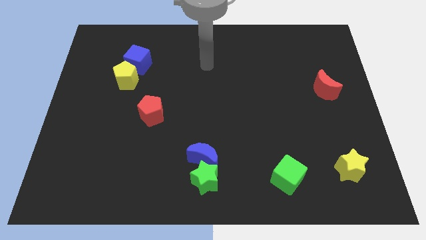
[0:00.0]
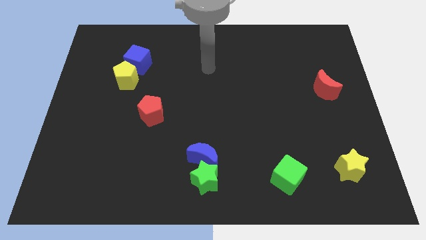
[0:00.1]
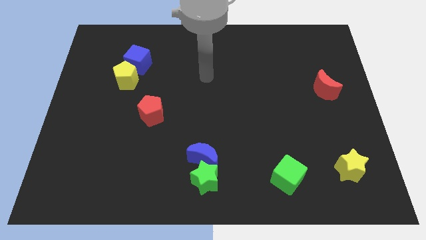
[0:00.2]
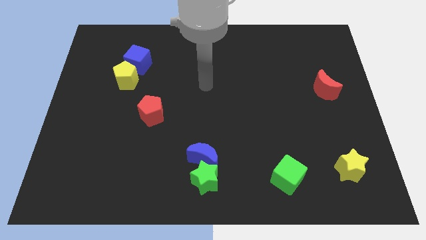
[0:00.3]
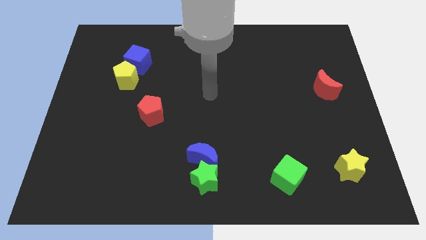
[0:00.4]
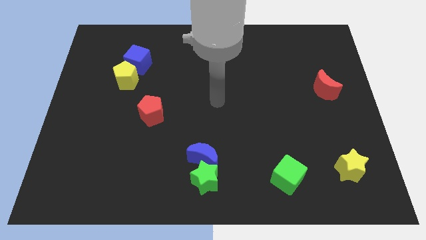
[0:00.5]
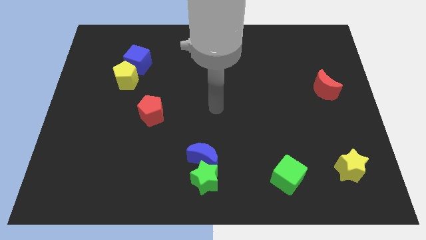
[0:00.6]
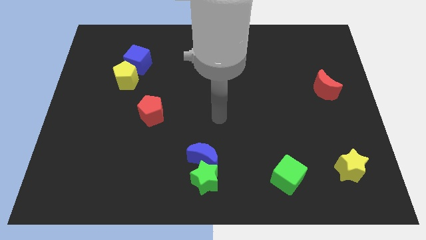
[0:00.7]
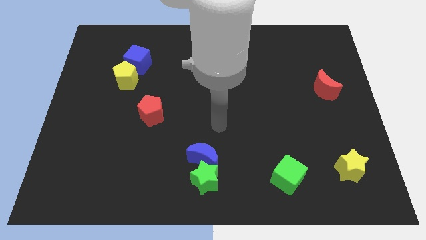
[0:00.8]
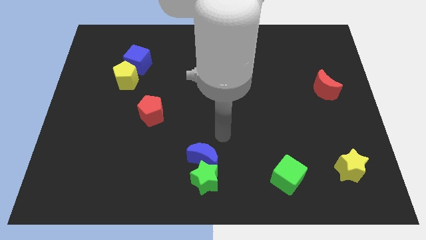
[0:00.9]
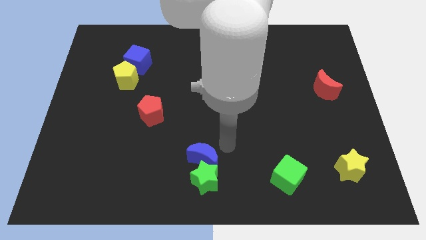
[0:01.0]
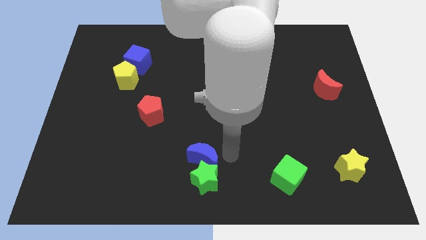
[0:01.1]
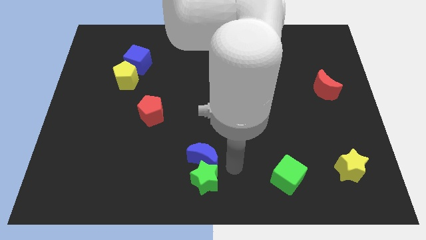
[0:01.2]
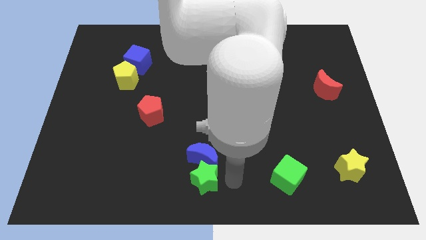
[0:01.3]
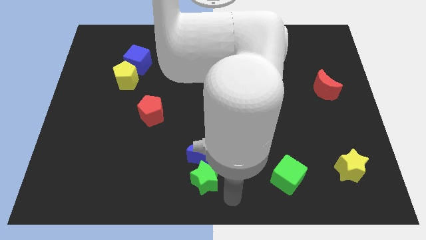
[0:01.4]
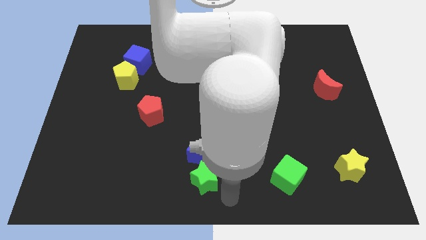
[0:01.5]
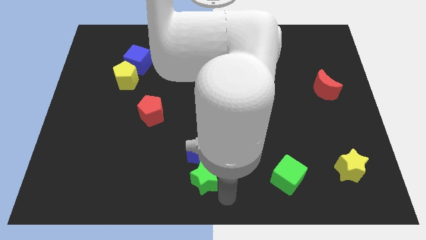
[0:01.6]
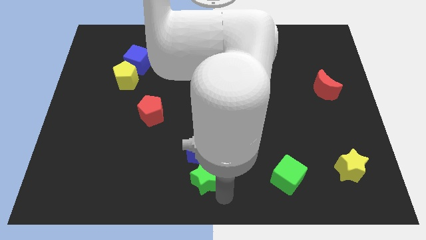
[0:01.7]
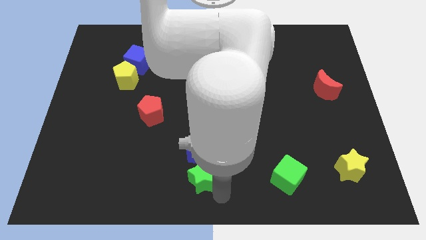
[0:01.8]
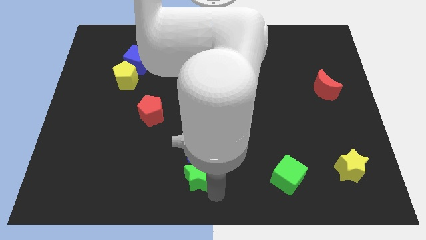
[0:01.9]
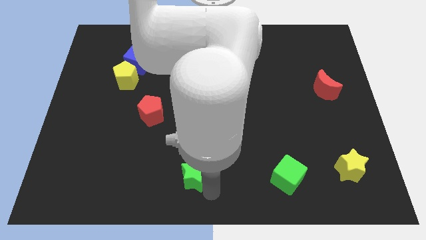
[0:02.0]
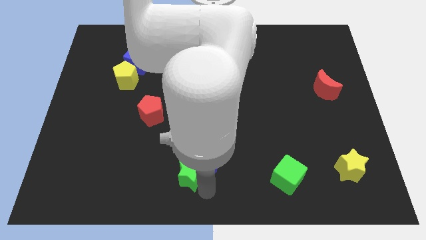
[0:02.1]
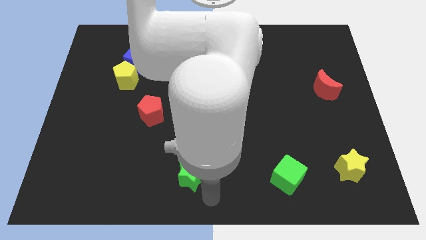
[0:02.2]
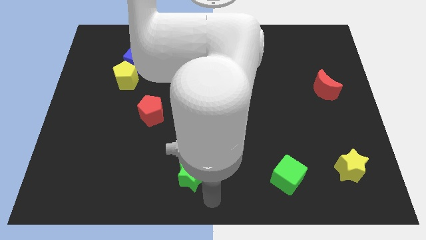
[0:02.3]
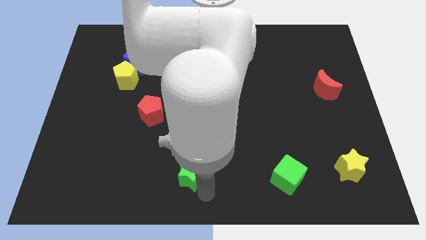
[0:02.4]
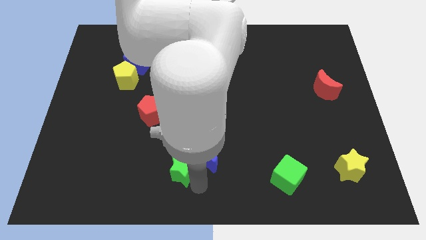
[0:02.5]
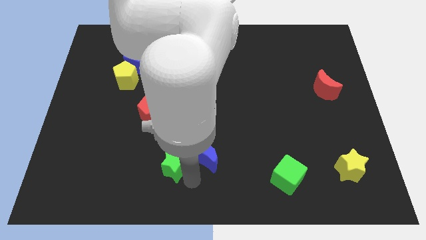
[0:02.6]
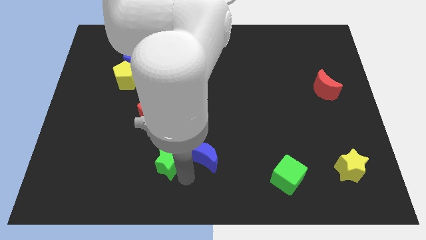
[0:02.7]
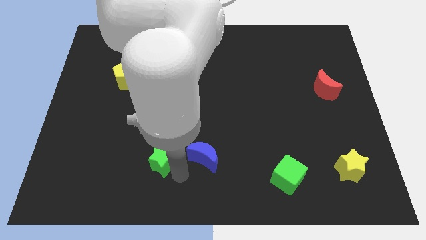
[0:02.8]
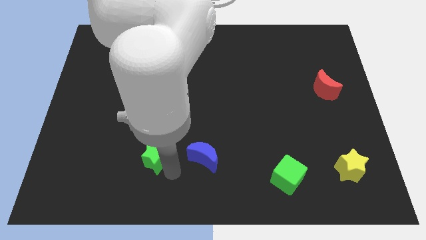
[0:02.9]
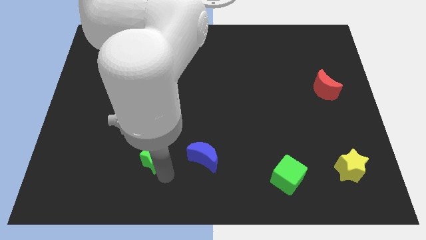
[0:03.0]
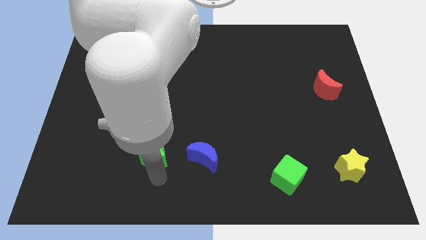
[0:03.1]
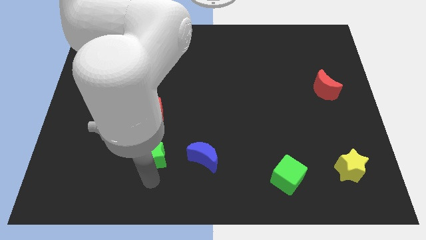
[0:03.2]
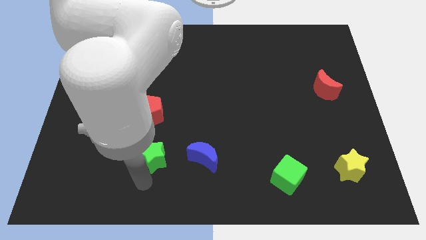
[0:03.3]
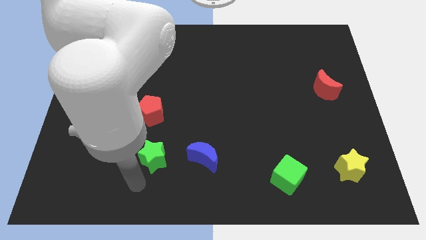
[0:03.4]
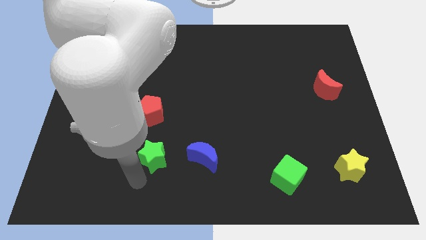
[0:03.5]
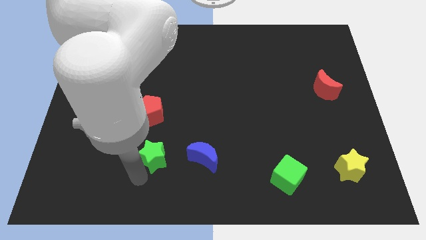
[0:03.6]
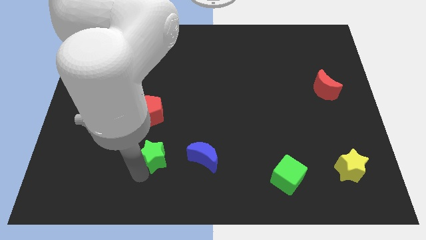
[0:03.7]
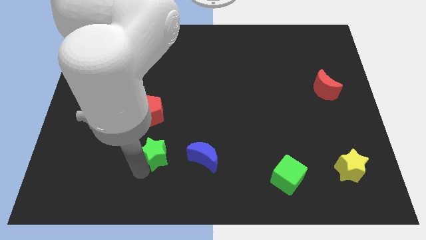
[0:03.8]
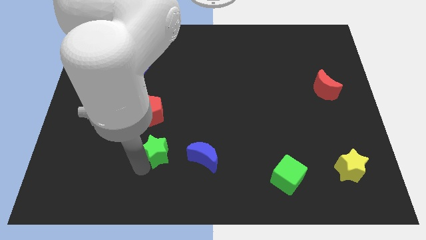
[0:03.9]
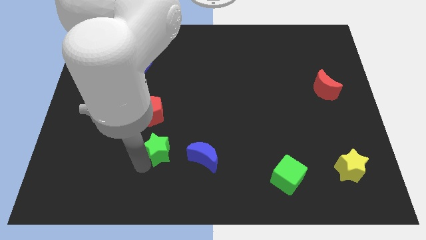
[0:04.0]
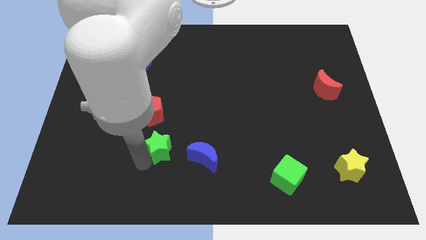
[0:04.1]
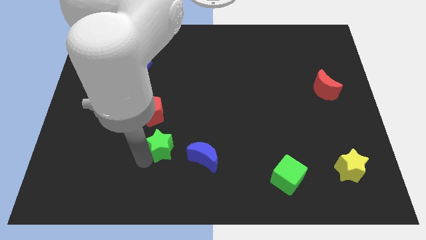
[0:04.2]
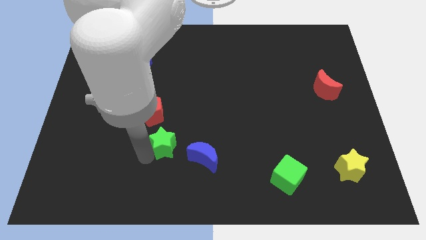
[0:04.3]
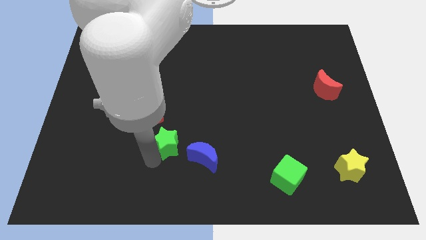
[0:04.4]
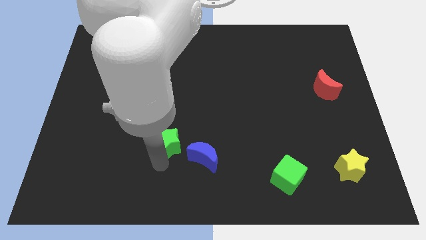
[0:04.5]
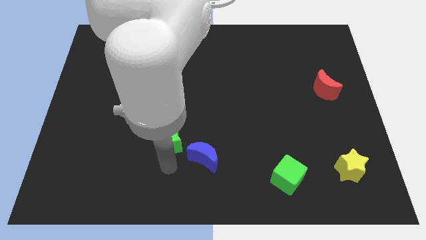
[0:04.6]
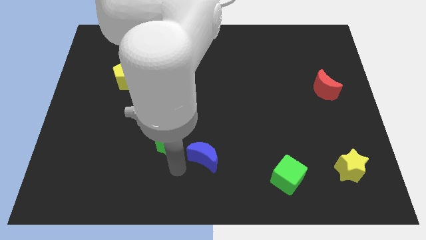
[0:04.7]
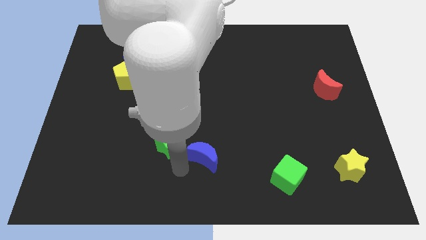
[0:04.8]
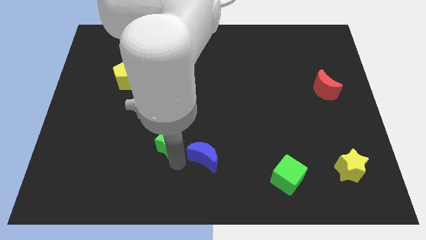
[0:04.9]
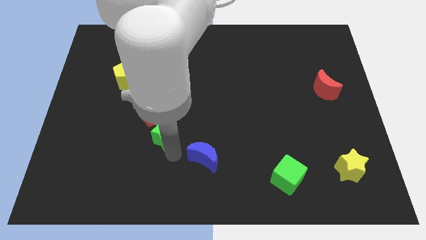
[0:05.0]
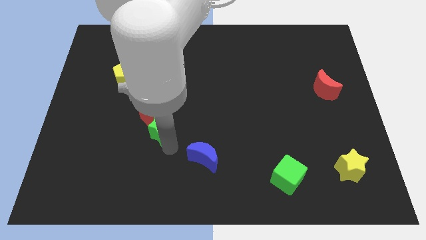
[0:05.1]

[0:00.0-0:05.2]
push the green star to the red pentagon

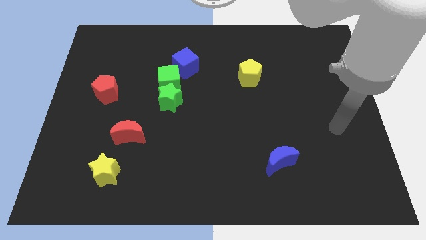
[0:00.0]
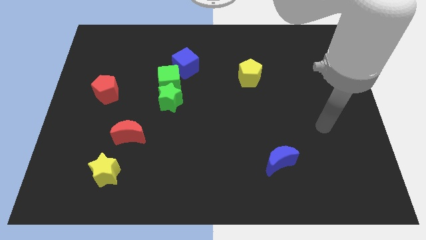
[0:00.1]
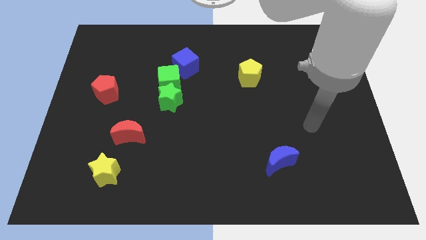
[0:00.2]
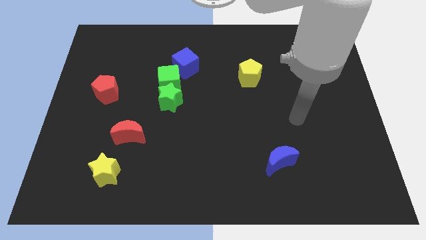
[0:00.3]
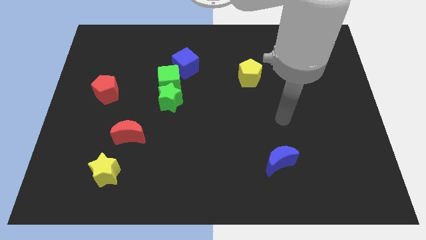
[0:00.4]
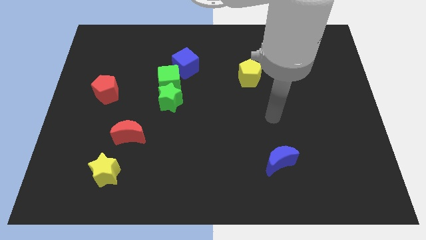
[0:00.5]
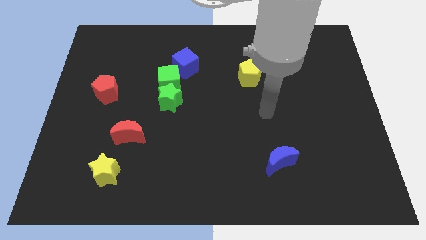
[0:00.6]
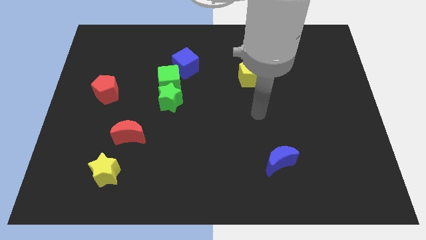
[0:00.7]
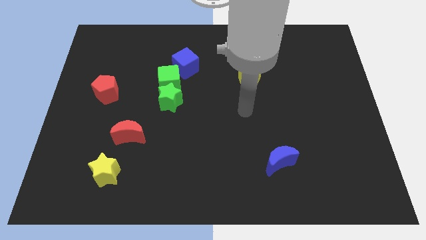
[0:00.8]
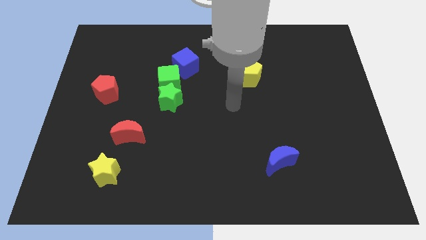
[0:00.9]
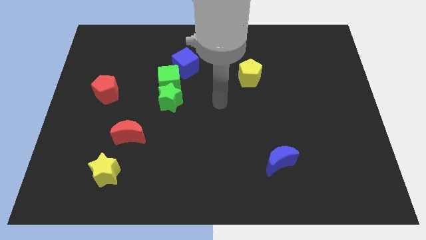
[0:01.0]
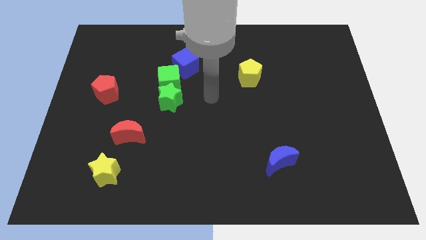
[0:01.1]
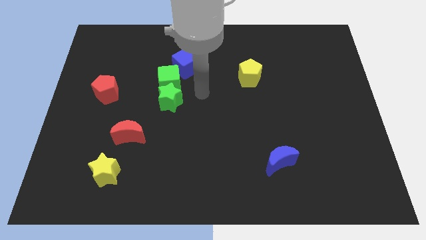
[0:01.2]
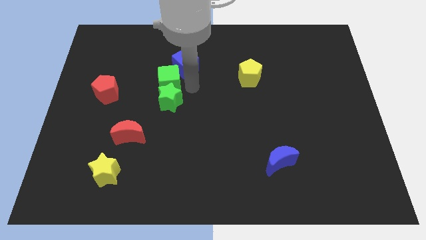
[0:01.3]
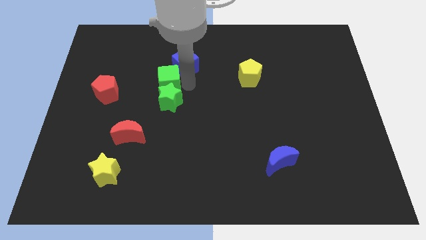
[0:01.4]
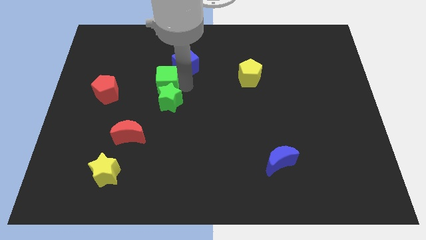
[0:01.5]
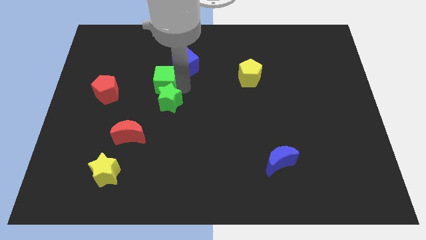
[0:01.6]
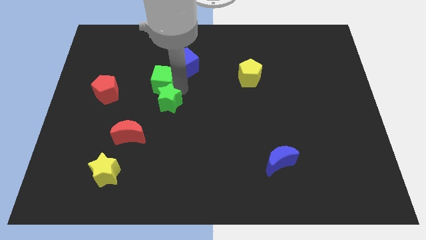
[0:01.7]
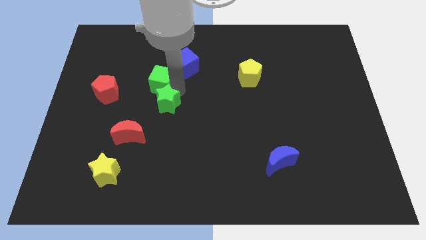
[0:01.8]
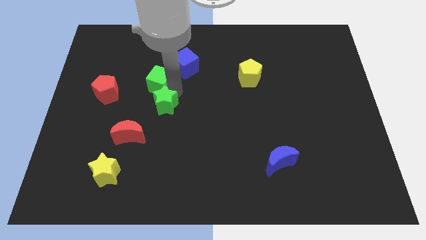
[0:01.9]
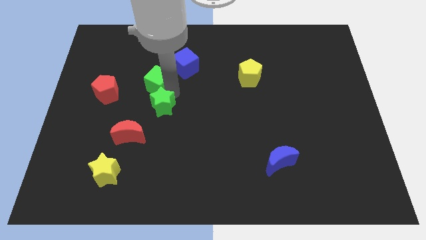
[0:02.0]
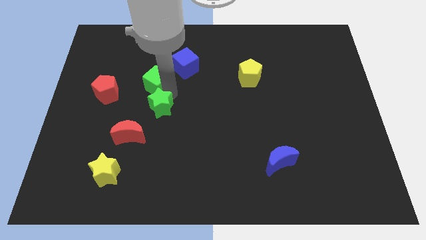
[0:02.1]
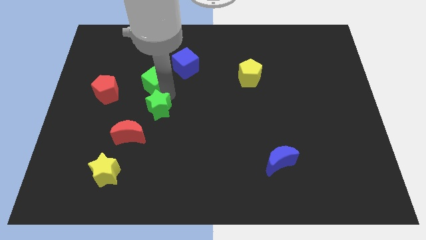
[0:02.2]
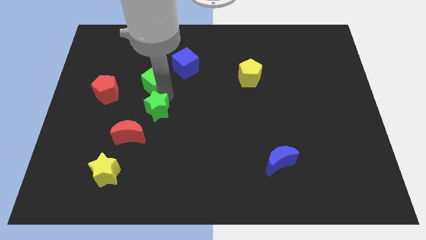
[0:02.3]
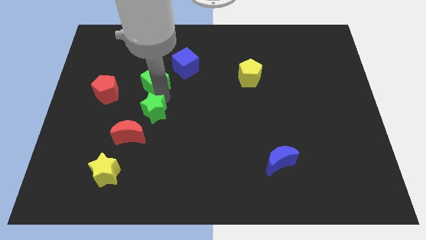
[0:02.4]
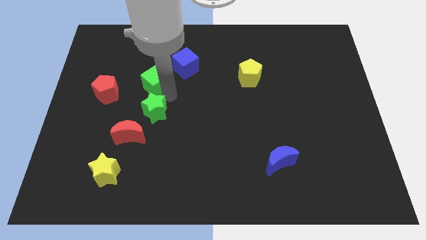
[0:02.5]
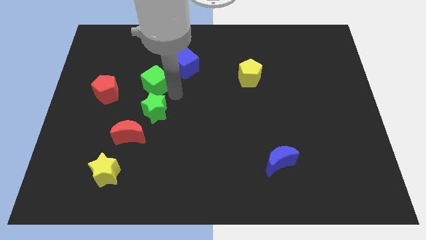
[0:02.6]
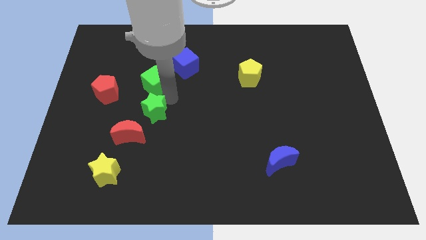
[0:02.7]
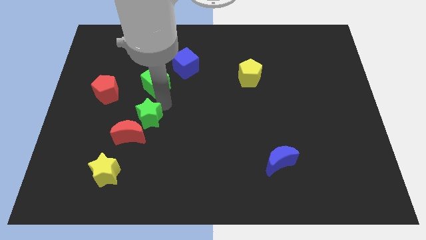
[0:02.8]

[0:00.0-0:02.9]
push the green star next to the red moon

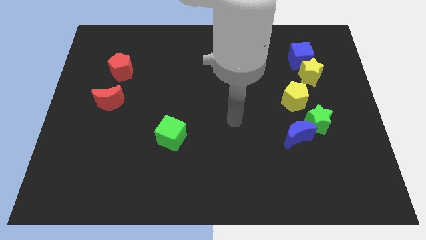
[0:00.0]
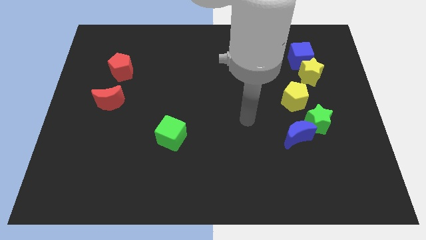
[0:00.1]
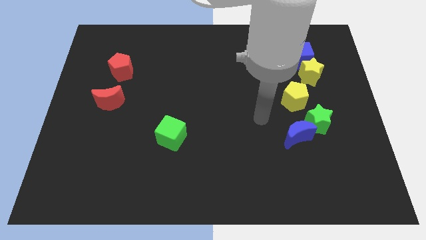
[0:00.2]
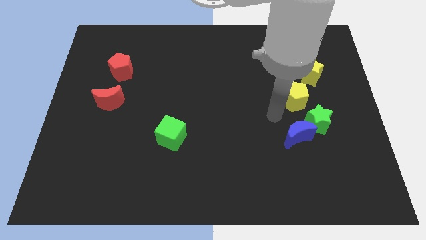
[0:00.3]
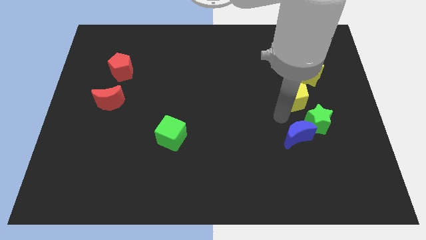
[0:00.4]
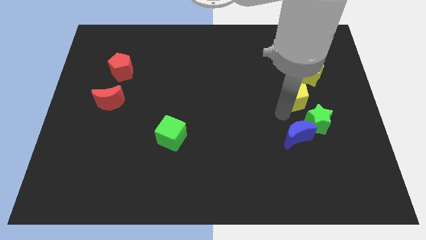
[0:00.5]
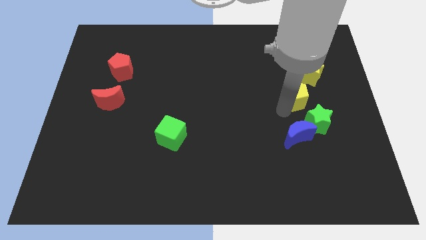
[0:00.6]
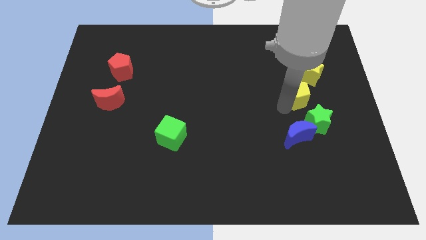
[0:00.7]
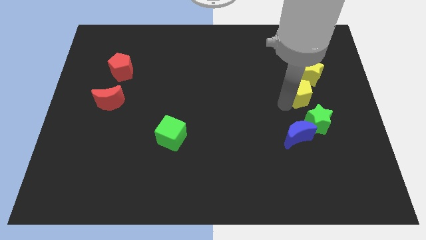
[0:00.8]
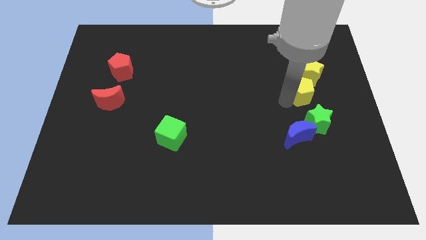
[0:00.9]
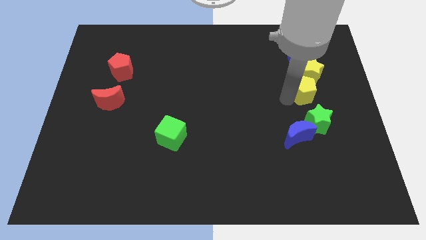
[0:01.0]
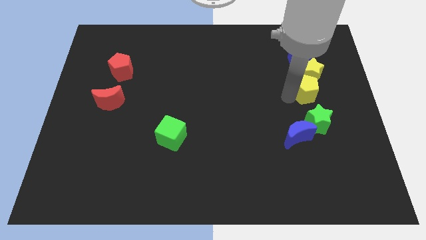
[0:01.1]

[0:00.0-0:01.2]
put the yellow pentagon close to the yellow star
